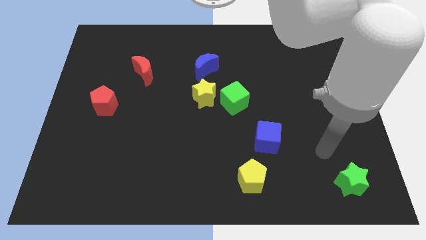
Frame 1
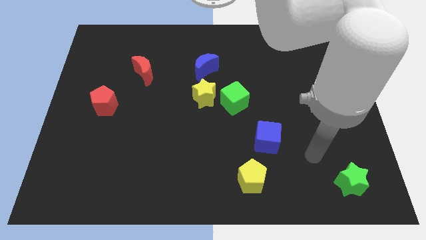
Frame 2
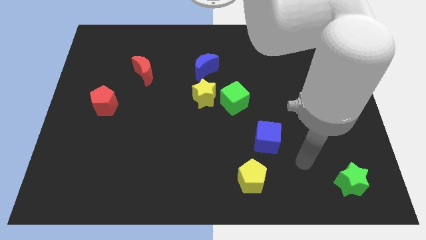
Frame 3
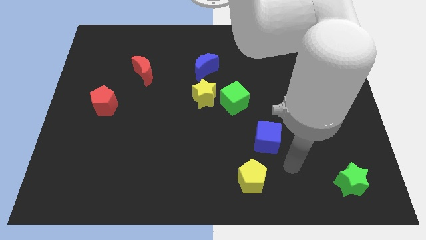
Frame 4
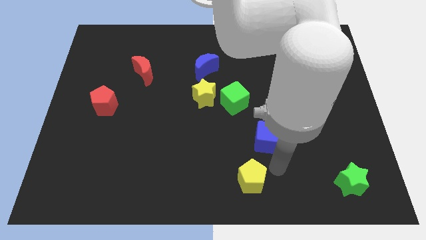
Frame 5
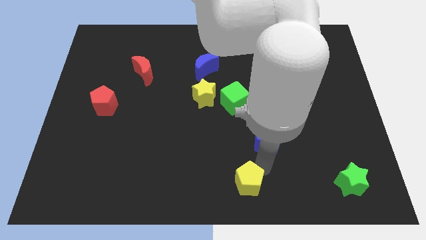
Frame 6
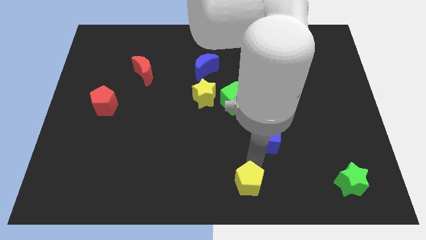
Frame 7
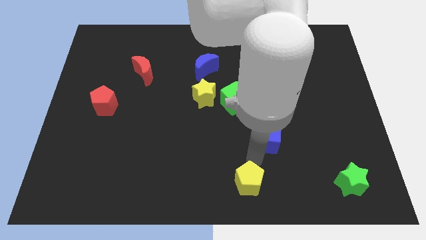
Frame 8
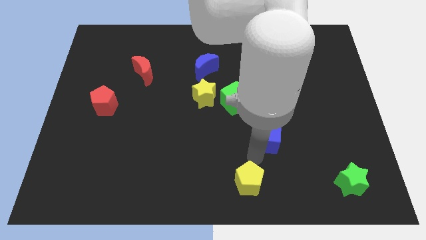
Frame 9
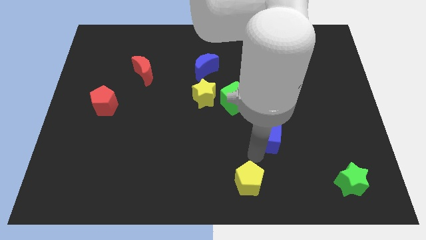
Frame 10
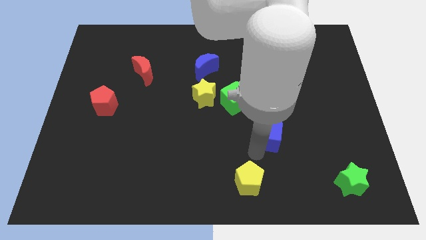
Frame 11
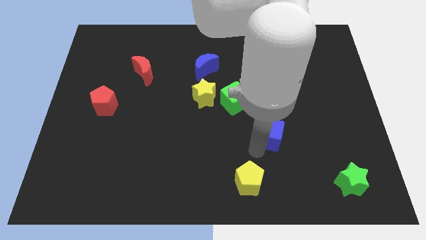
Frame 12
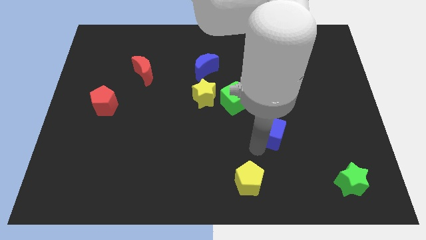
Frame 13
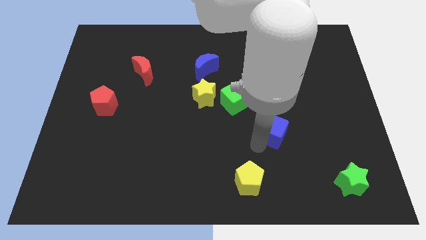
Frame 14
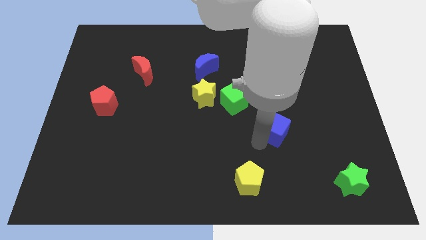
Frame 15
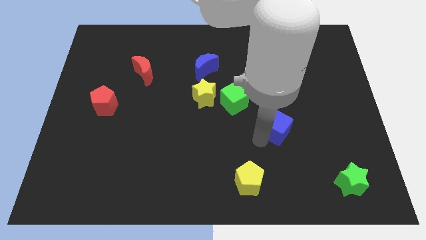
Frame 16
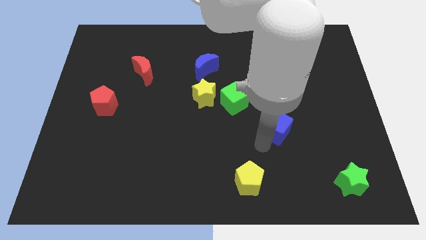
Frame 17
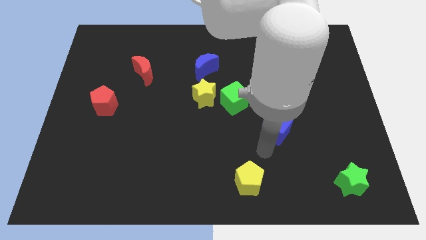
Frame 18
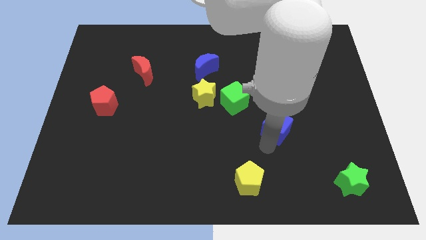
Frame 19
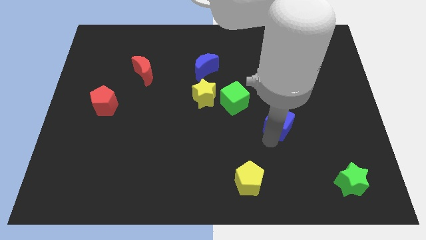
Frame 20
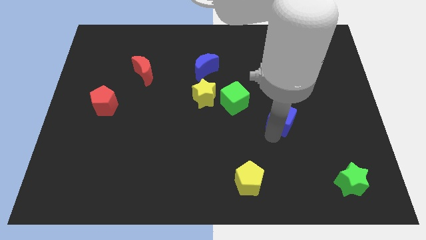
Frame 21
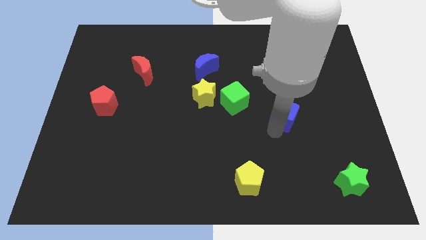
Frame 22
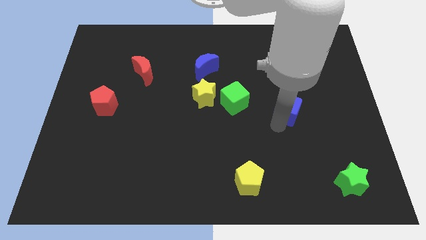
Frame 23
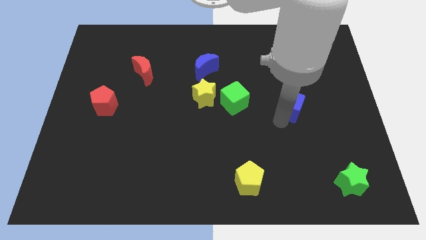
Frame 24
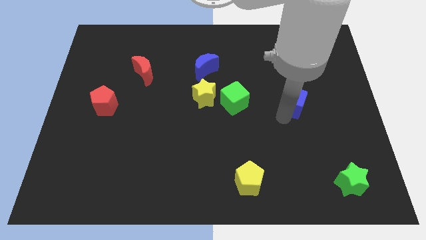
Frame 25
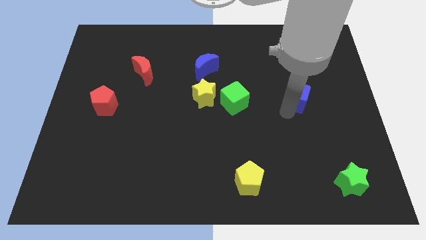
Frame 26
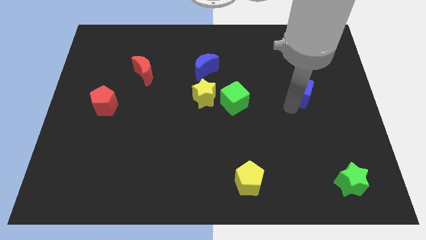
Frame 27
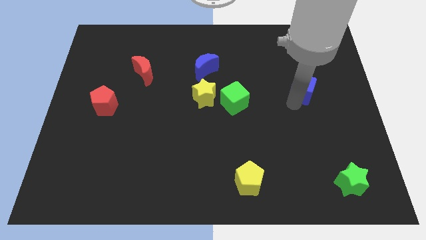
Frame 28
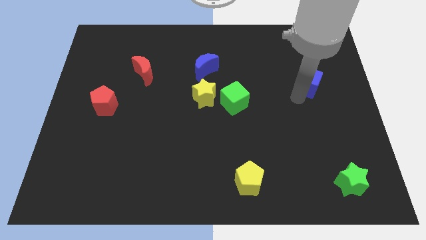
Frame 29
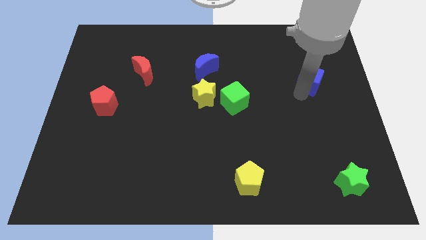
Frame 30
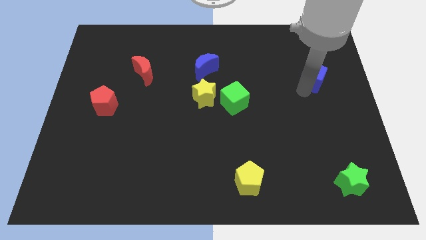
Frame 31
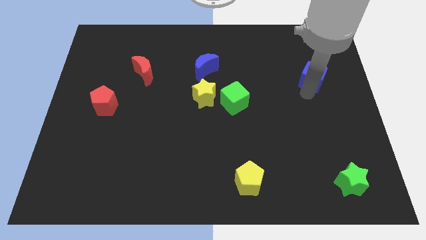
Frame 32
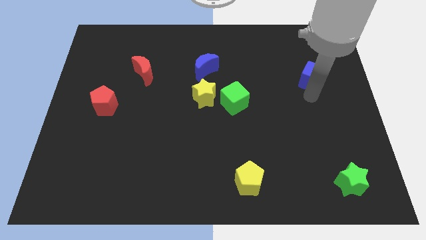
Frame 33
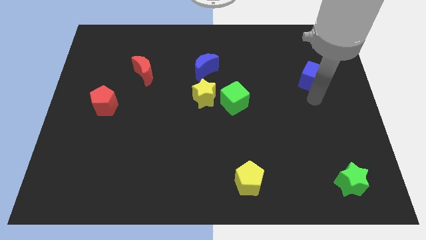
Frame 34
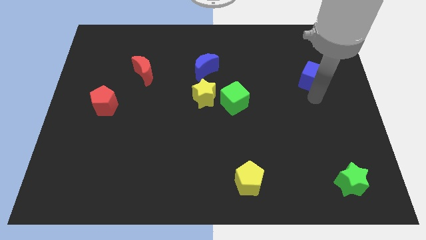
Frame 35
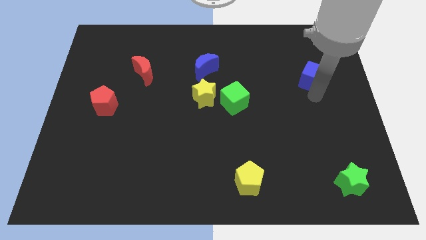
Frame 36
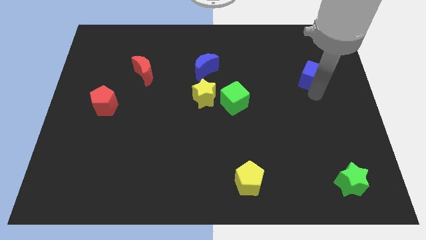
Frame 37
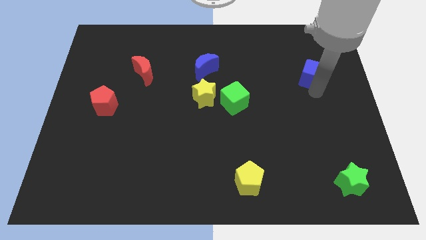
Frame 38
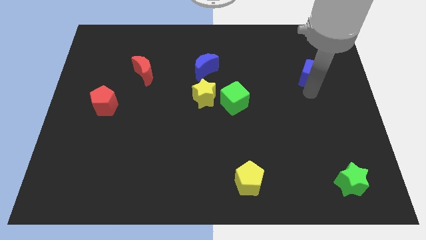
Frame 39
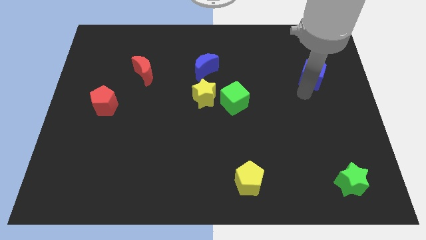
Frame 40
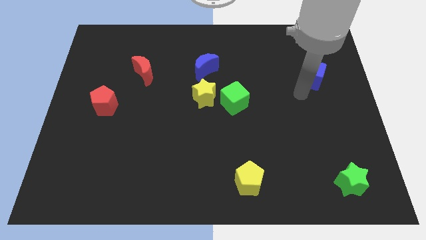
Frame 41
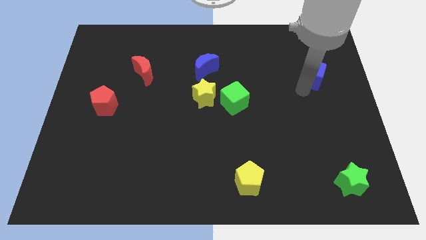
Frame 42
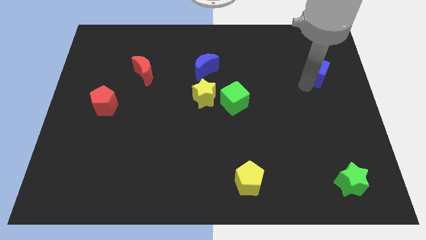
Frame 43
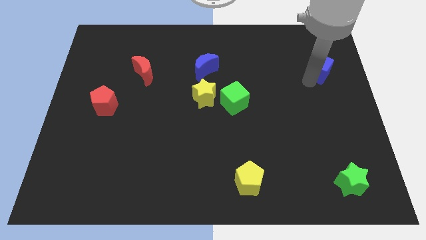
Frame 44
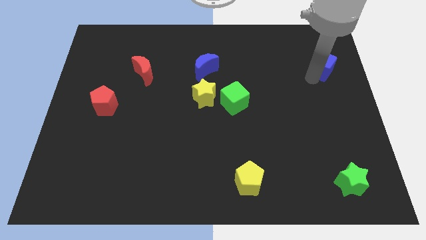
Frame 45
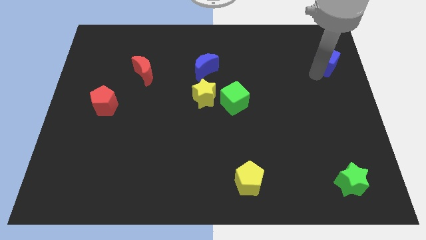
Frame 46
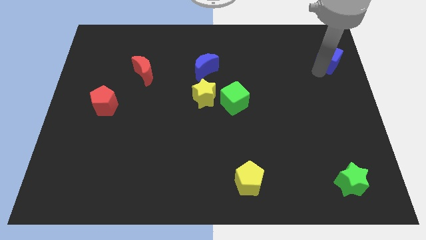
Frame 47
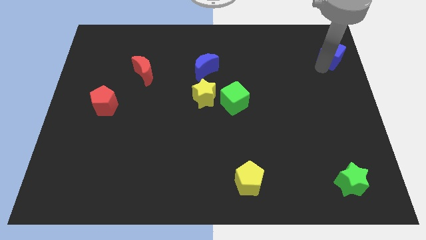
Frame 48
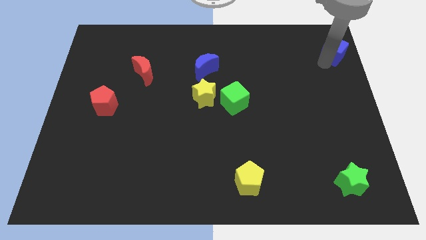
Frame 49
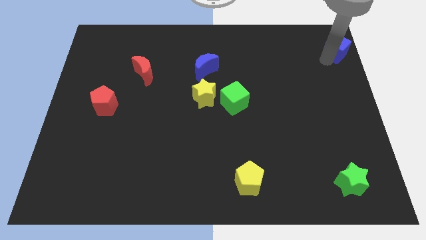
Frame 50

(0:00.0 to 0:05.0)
slide the blue cube to the top right
